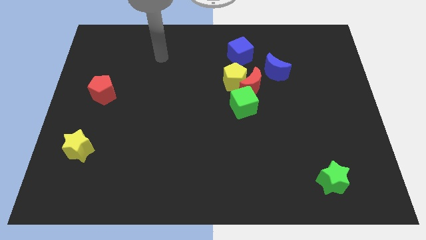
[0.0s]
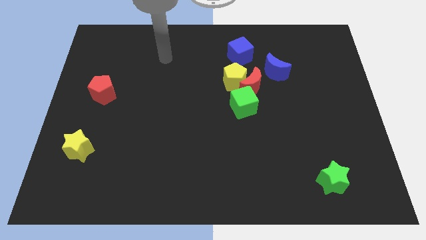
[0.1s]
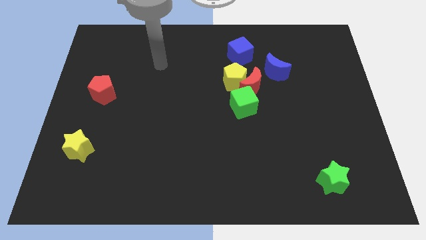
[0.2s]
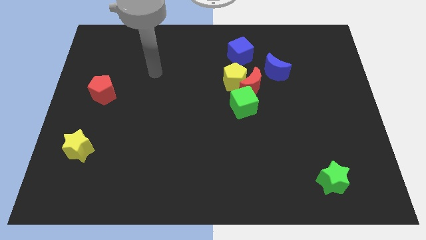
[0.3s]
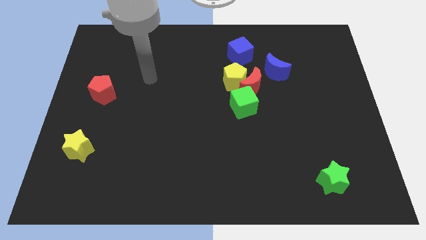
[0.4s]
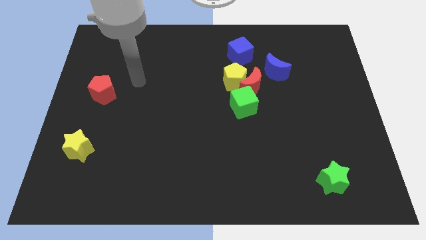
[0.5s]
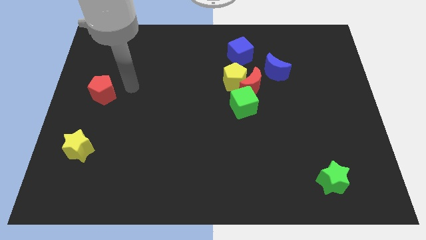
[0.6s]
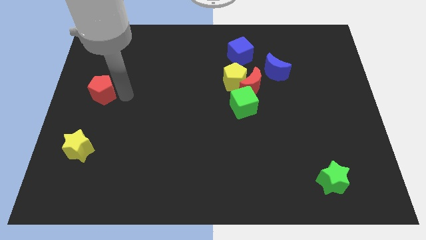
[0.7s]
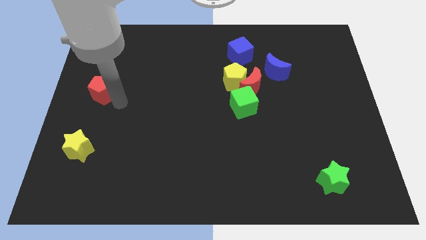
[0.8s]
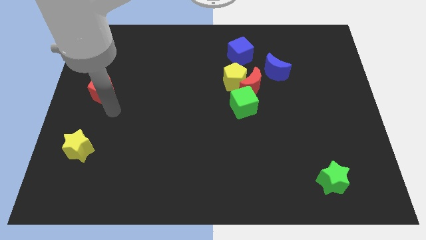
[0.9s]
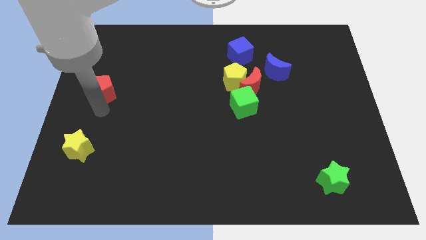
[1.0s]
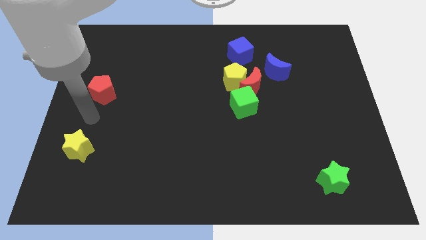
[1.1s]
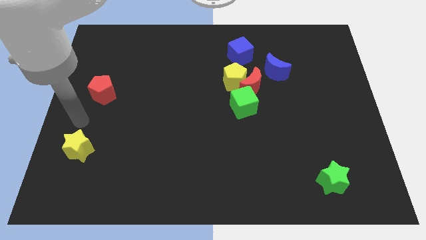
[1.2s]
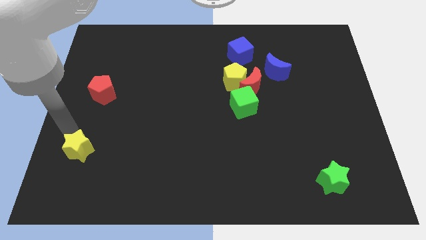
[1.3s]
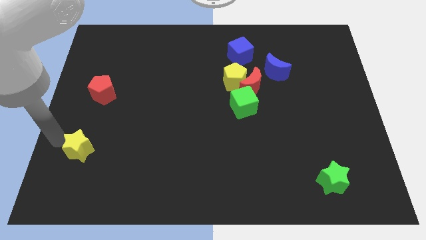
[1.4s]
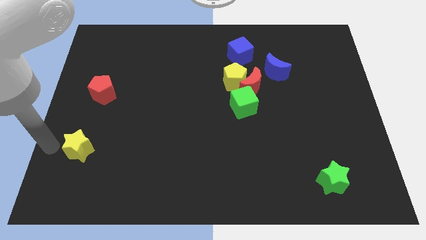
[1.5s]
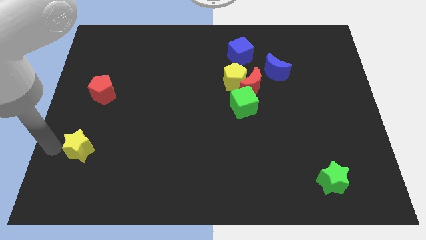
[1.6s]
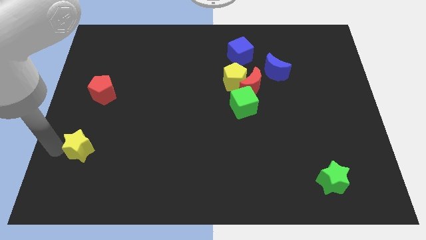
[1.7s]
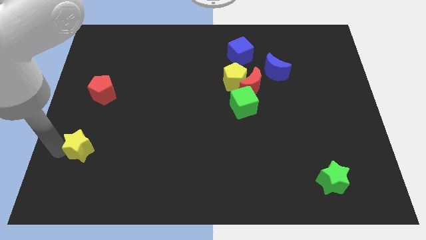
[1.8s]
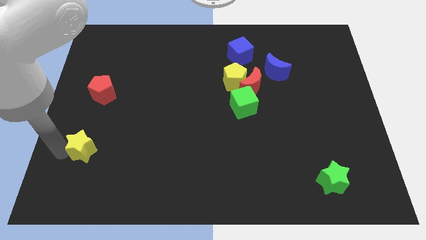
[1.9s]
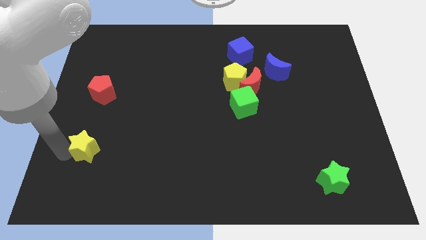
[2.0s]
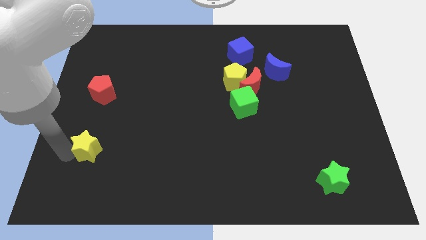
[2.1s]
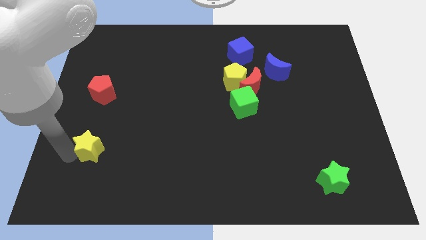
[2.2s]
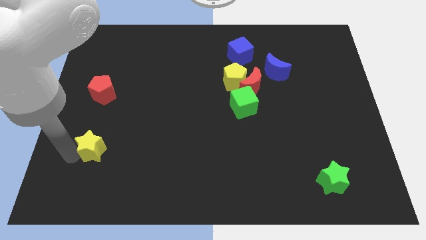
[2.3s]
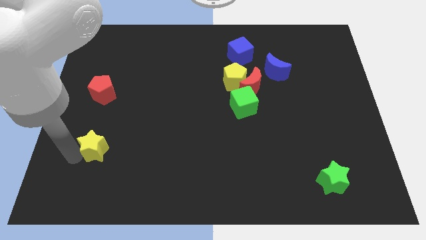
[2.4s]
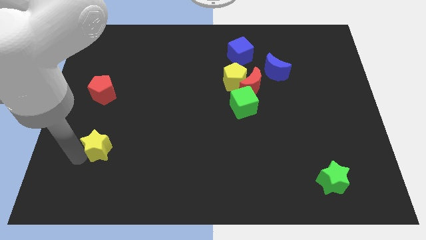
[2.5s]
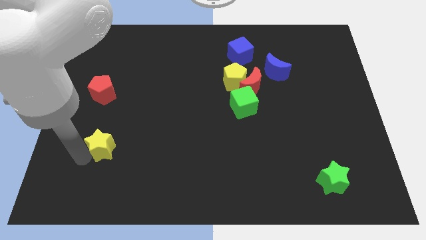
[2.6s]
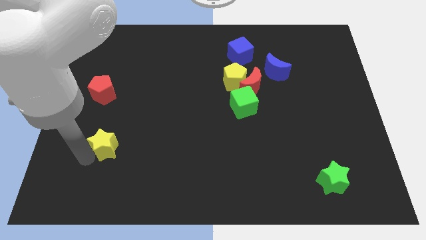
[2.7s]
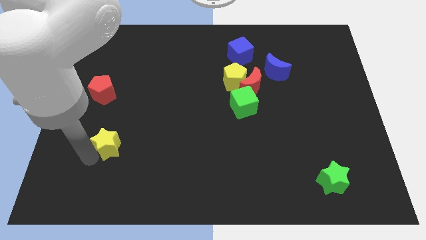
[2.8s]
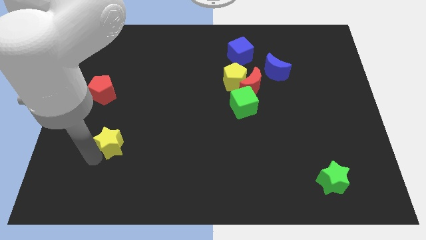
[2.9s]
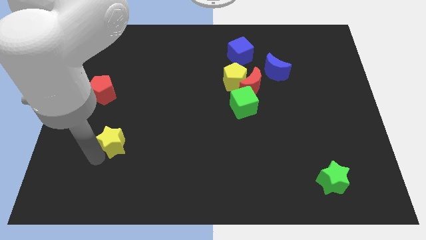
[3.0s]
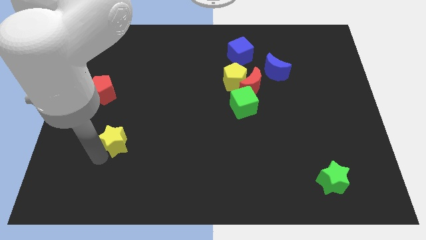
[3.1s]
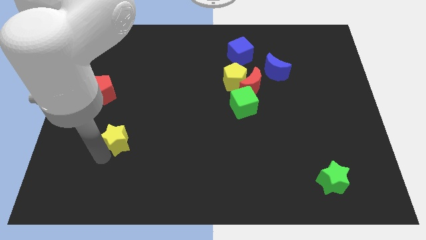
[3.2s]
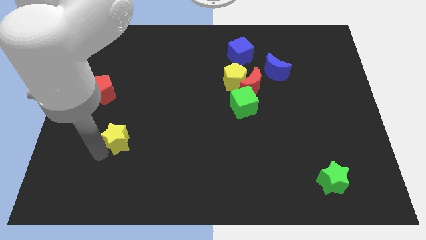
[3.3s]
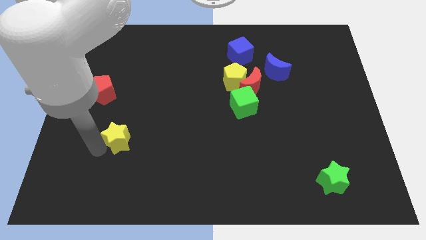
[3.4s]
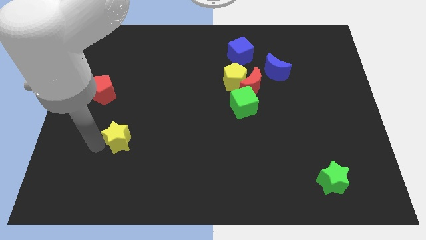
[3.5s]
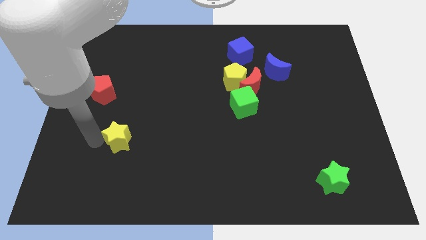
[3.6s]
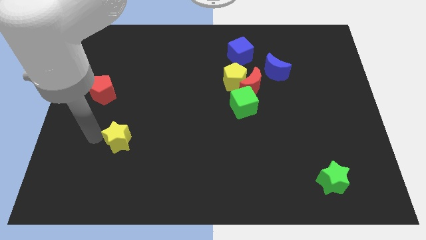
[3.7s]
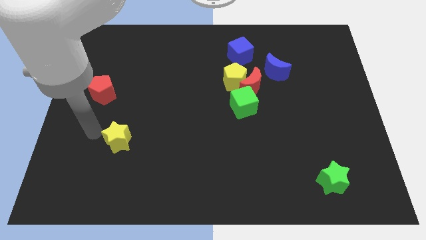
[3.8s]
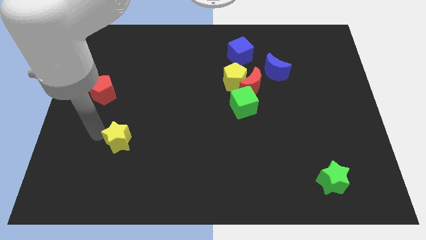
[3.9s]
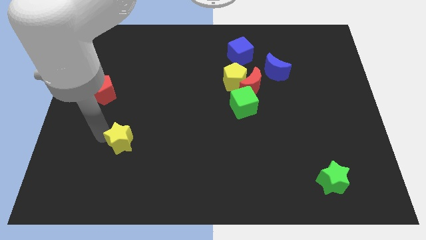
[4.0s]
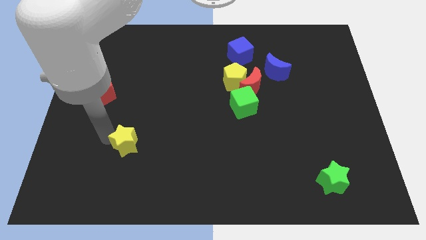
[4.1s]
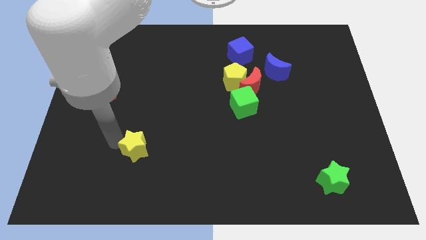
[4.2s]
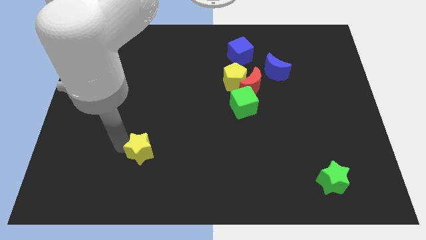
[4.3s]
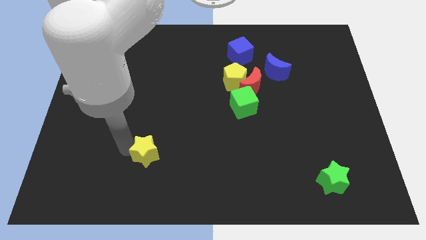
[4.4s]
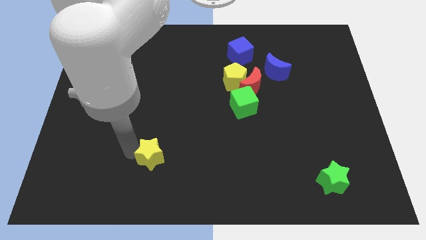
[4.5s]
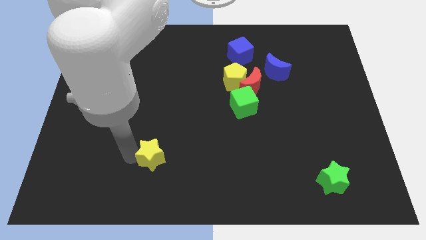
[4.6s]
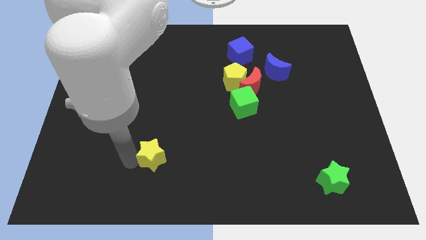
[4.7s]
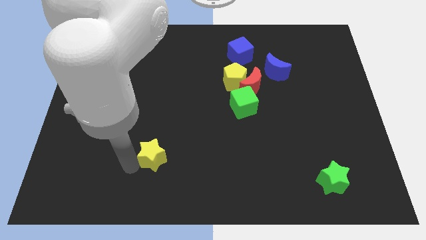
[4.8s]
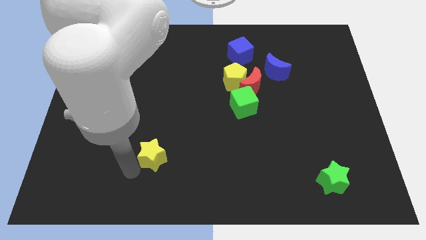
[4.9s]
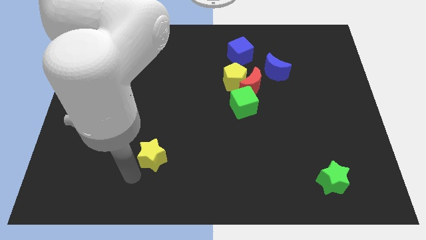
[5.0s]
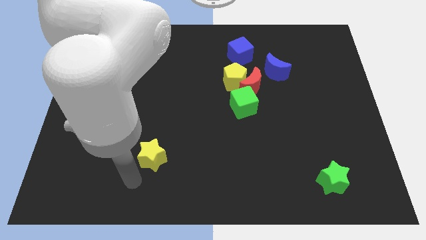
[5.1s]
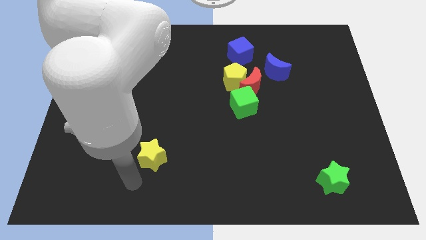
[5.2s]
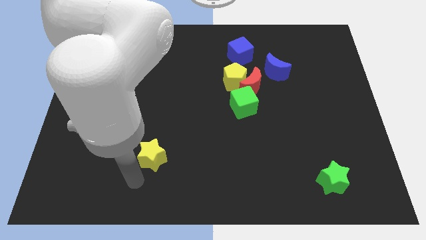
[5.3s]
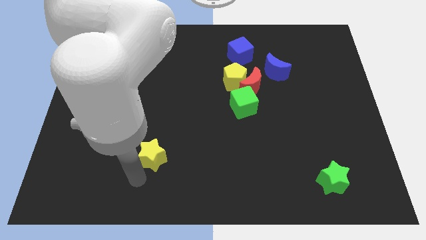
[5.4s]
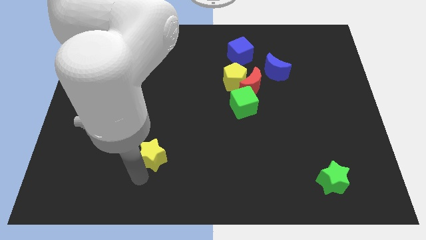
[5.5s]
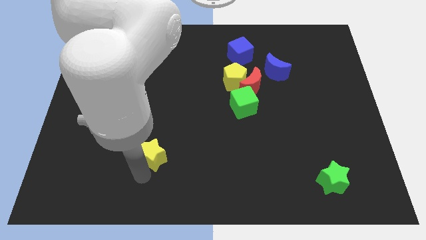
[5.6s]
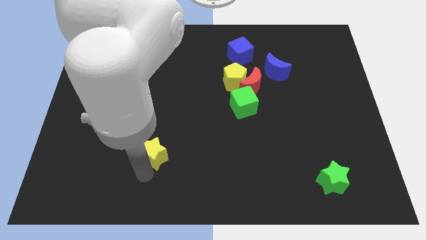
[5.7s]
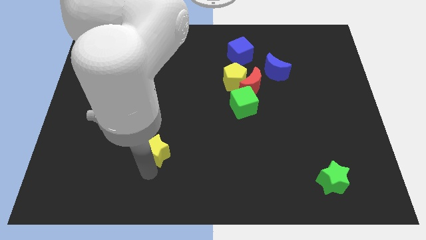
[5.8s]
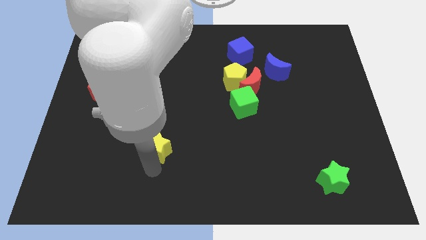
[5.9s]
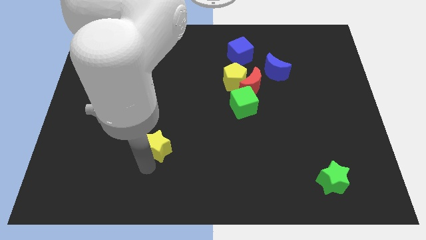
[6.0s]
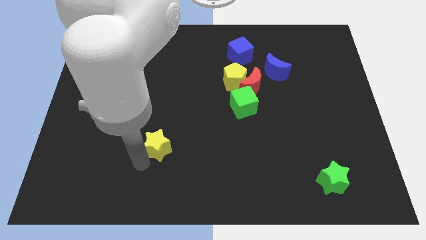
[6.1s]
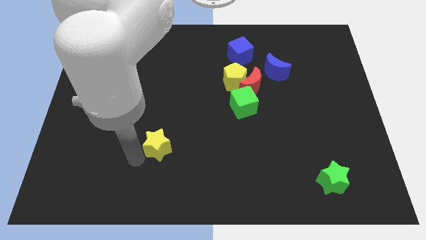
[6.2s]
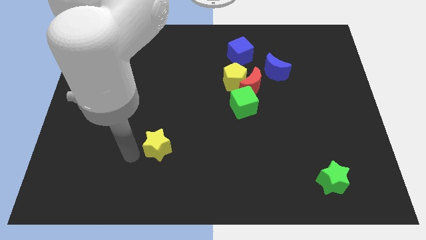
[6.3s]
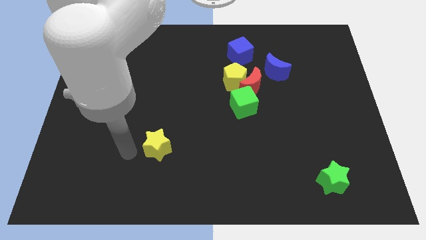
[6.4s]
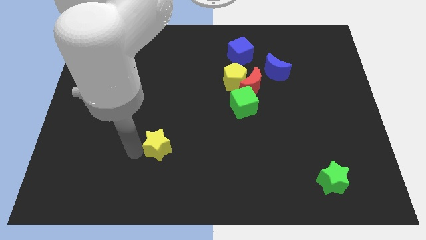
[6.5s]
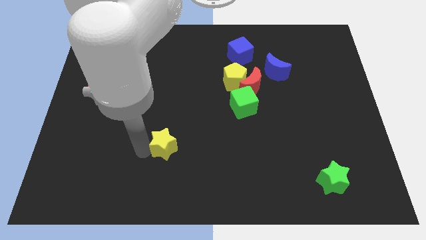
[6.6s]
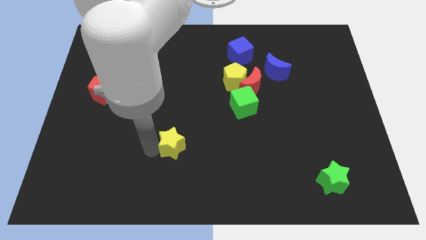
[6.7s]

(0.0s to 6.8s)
push the yellow star to the right

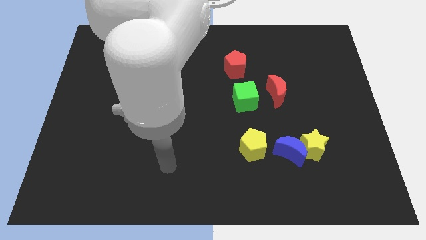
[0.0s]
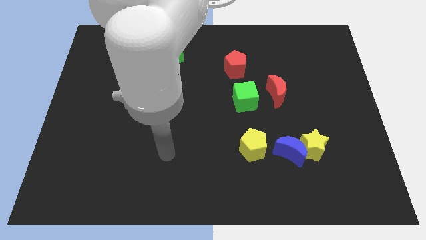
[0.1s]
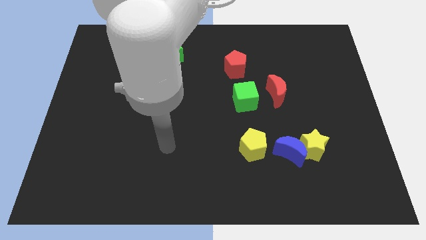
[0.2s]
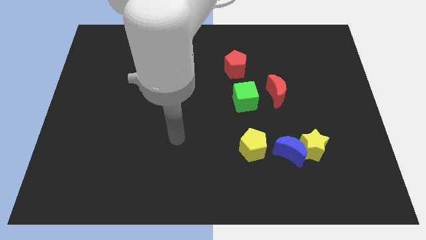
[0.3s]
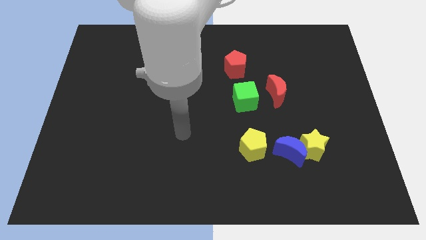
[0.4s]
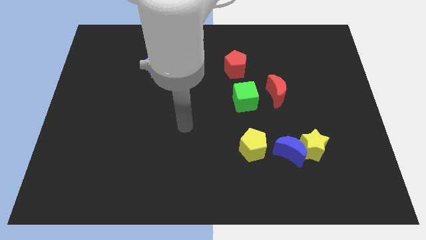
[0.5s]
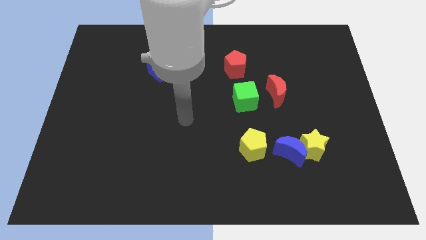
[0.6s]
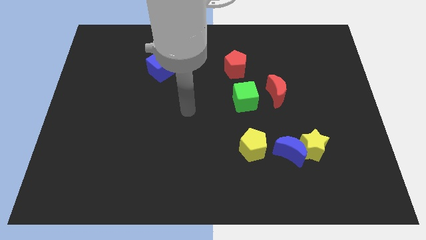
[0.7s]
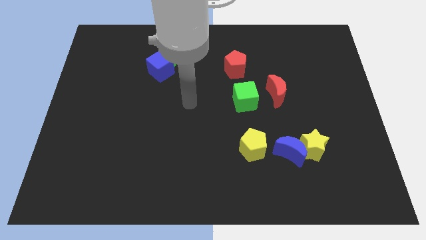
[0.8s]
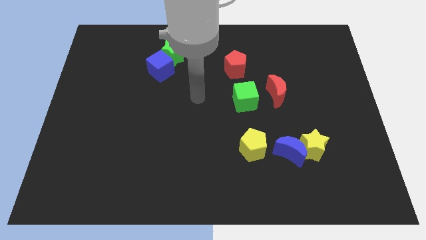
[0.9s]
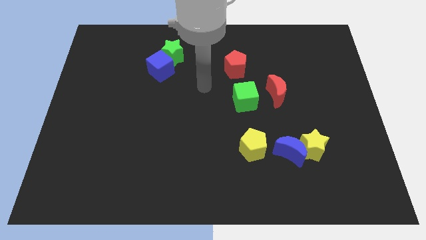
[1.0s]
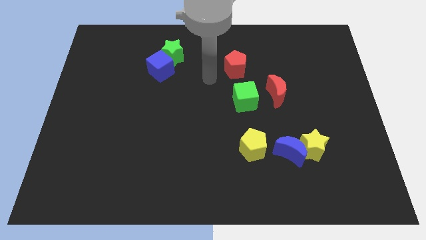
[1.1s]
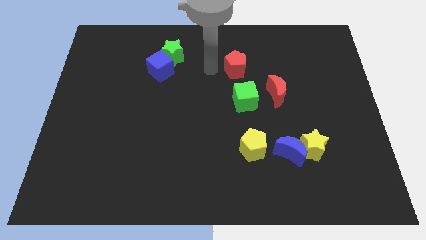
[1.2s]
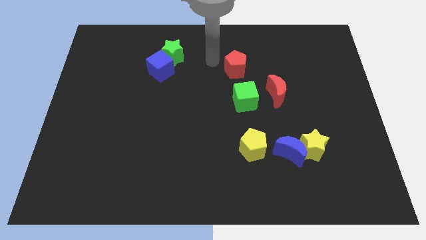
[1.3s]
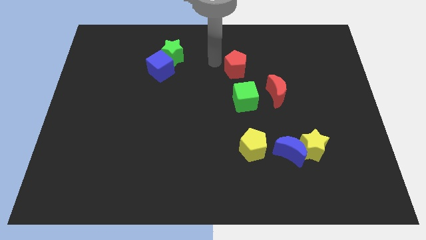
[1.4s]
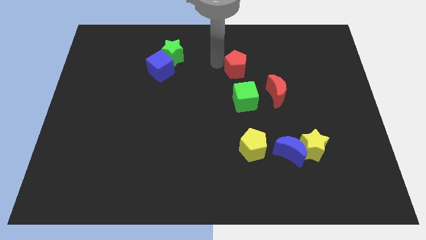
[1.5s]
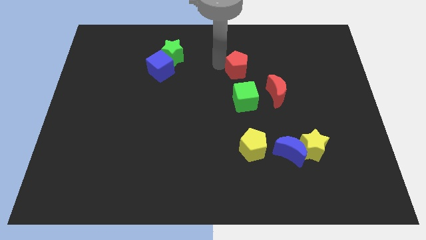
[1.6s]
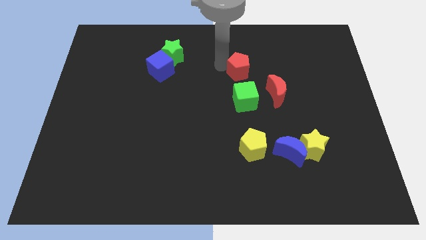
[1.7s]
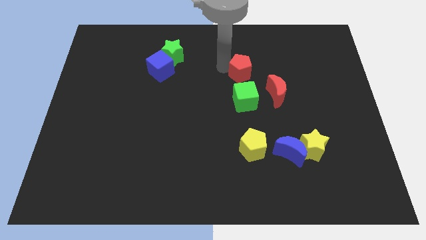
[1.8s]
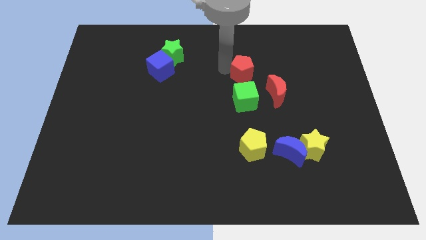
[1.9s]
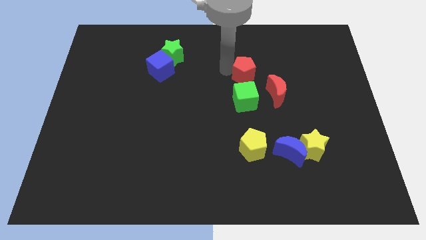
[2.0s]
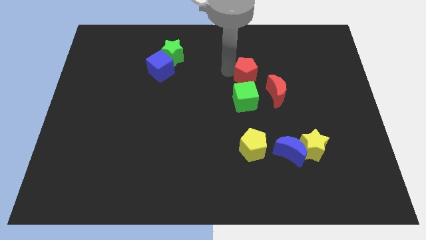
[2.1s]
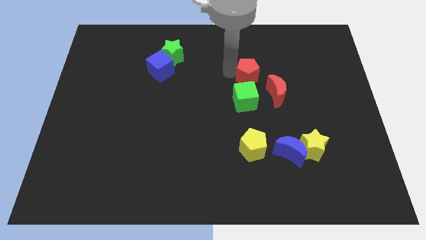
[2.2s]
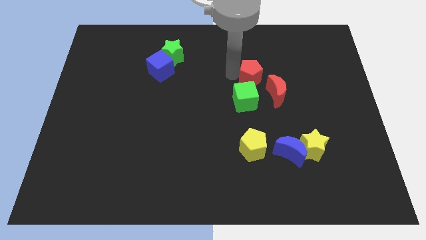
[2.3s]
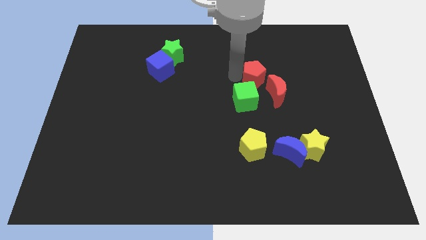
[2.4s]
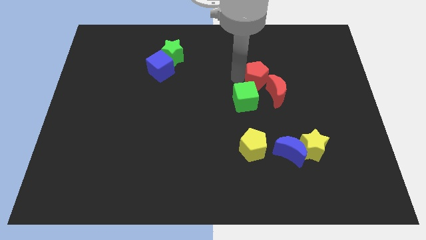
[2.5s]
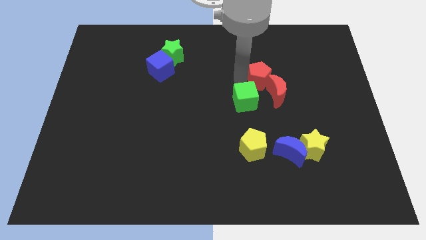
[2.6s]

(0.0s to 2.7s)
slightly move the red pentagon down and then to the right
